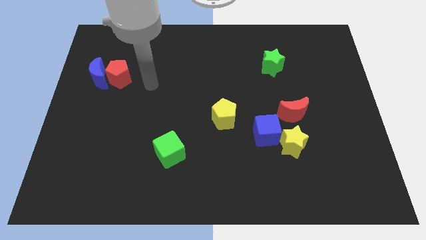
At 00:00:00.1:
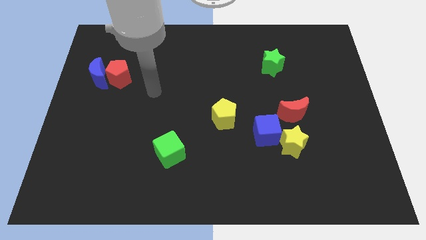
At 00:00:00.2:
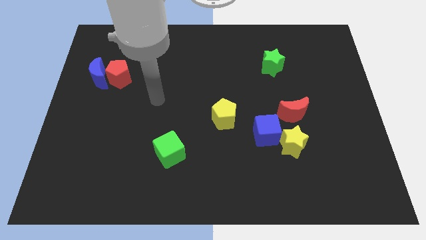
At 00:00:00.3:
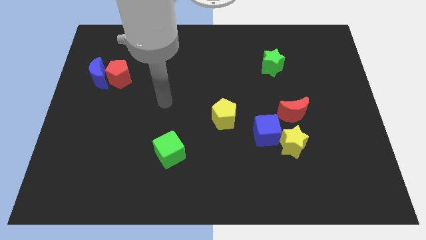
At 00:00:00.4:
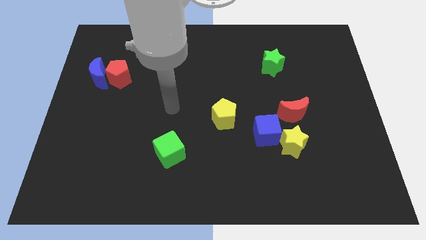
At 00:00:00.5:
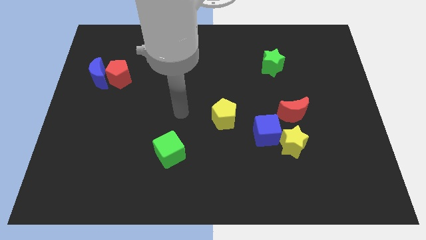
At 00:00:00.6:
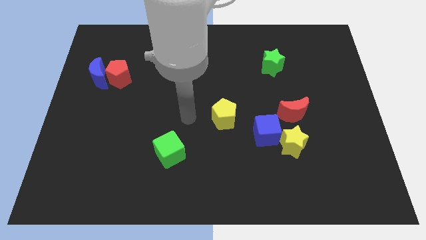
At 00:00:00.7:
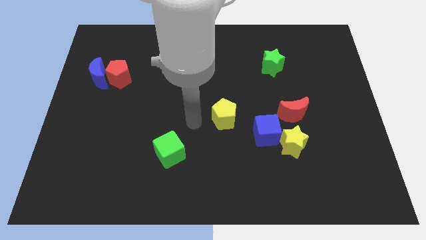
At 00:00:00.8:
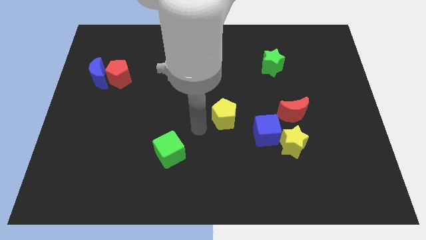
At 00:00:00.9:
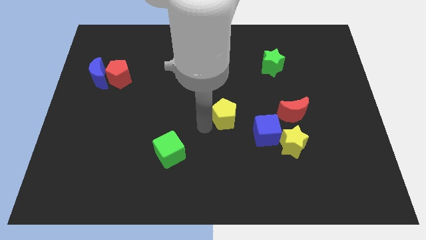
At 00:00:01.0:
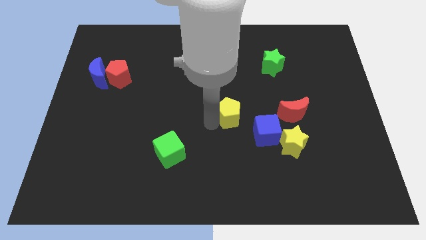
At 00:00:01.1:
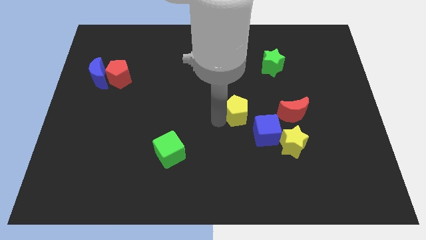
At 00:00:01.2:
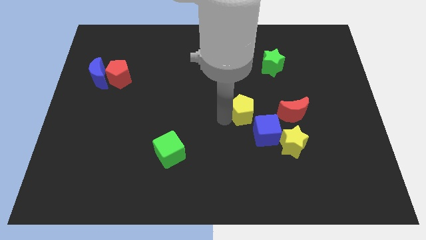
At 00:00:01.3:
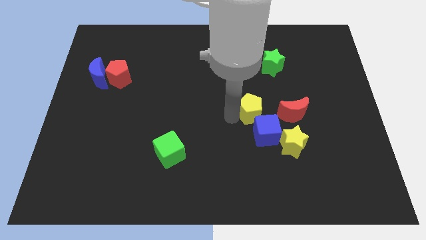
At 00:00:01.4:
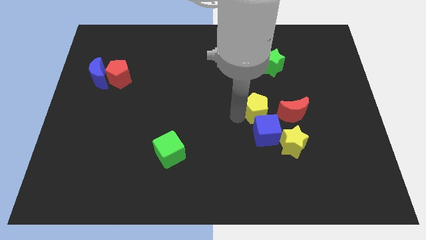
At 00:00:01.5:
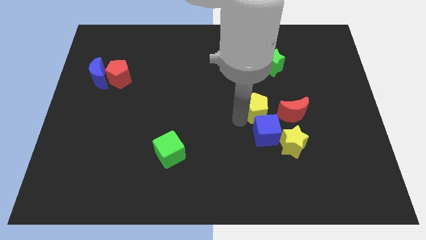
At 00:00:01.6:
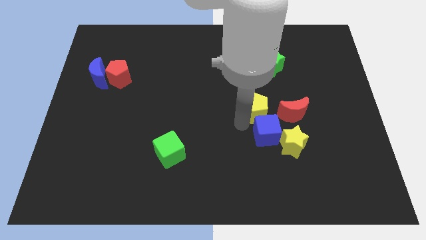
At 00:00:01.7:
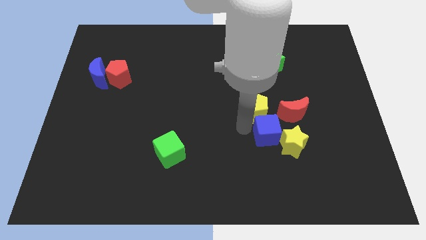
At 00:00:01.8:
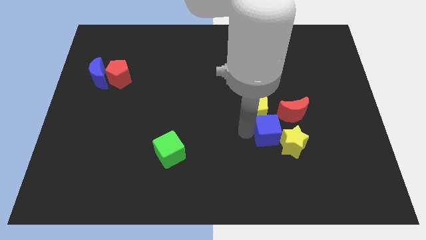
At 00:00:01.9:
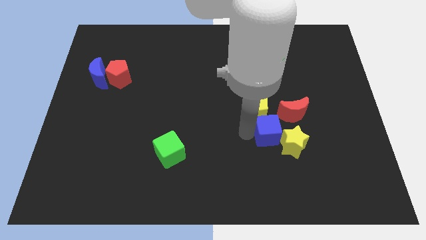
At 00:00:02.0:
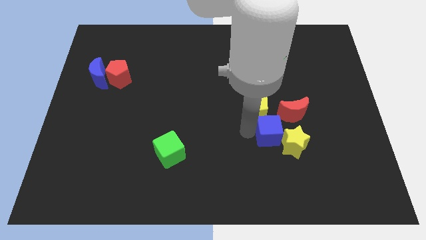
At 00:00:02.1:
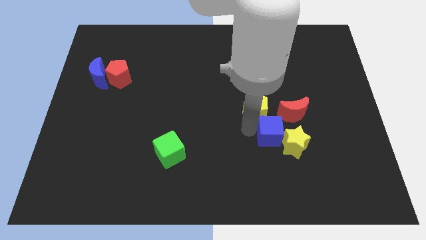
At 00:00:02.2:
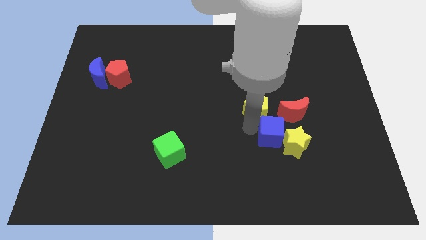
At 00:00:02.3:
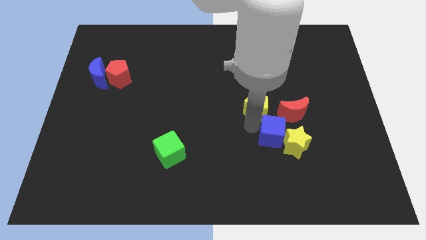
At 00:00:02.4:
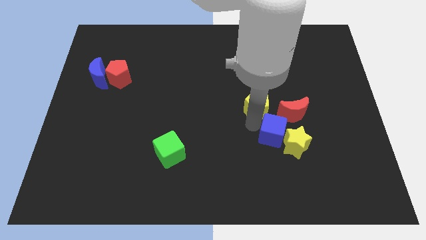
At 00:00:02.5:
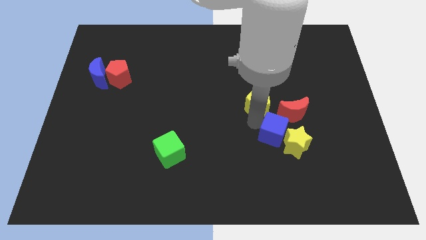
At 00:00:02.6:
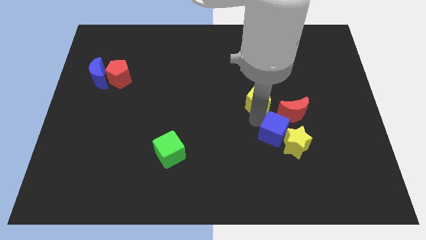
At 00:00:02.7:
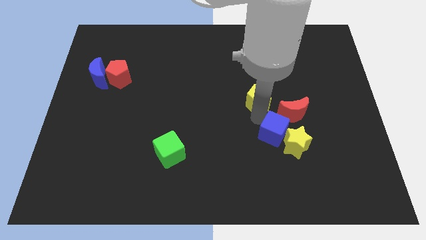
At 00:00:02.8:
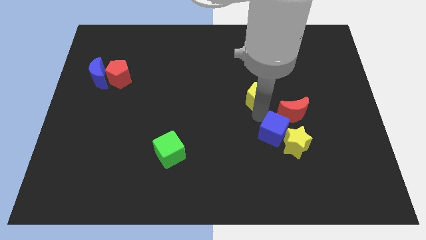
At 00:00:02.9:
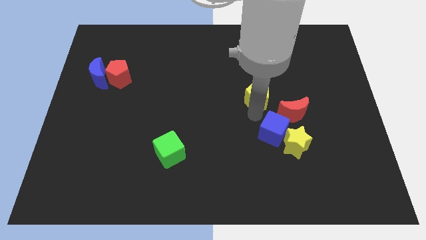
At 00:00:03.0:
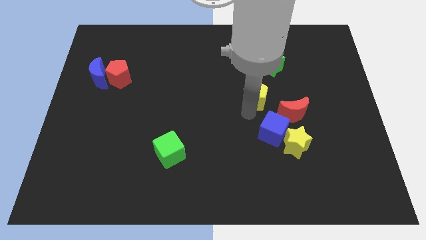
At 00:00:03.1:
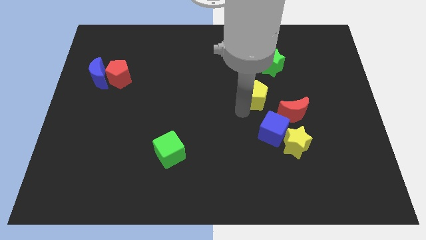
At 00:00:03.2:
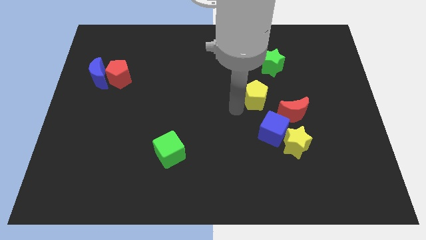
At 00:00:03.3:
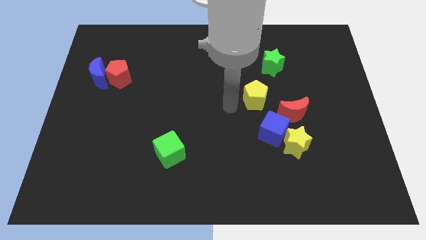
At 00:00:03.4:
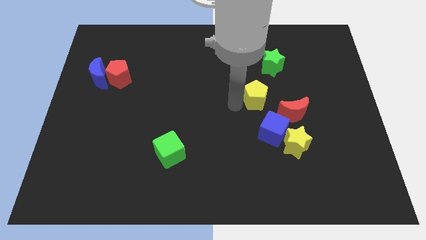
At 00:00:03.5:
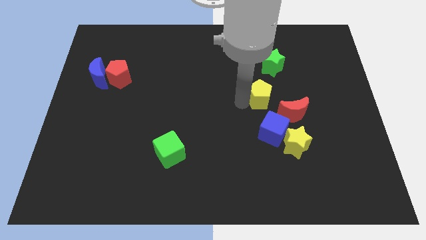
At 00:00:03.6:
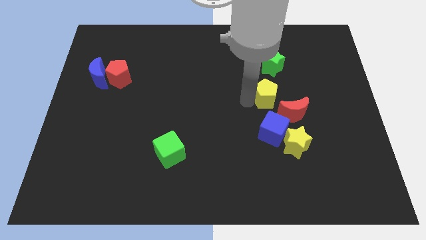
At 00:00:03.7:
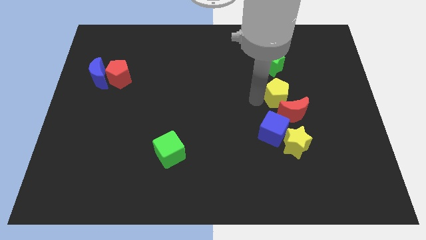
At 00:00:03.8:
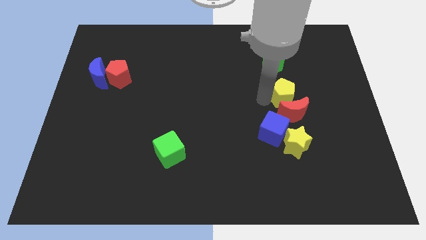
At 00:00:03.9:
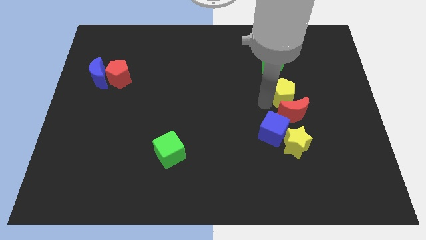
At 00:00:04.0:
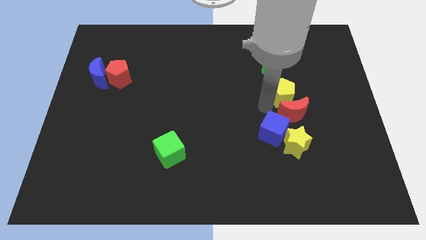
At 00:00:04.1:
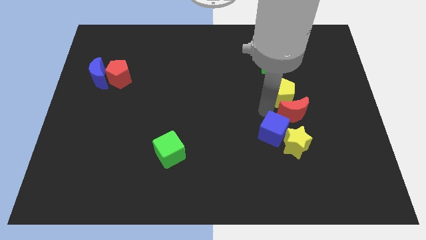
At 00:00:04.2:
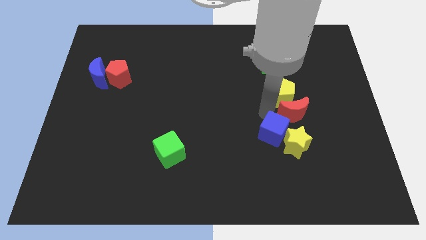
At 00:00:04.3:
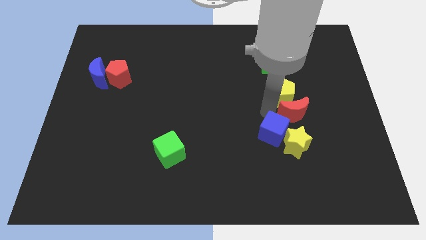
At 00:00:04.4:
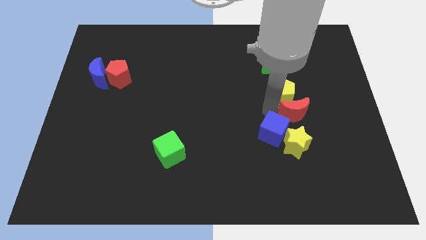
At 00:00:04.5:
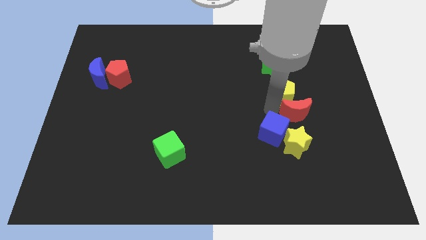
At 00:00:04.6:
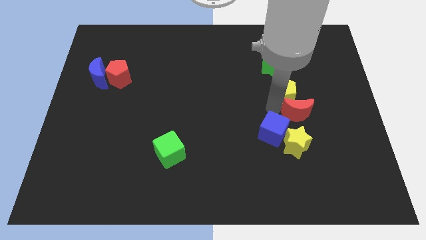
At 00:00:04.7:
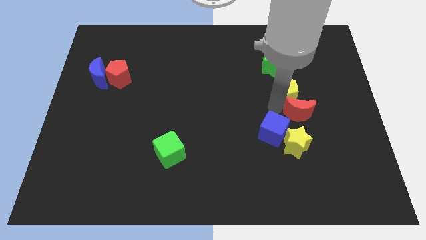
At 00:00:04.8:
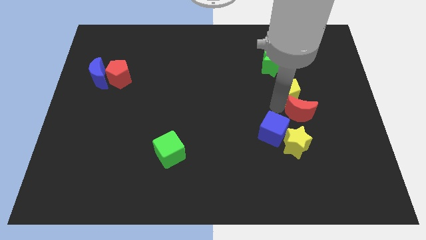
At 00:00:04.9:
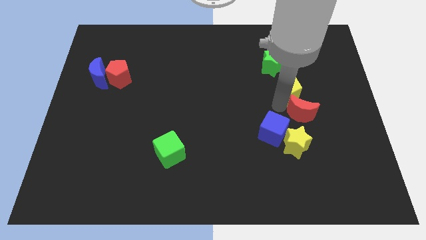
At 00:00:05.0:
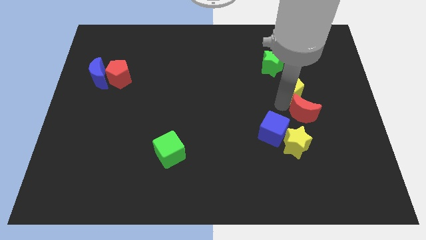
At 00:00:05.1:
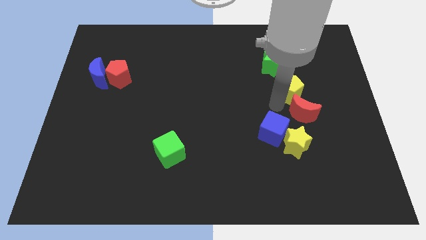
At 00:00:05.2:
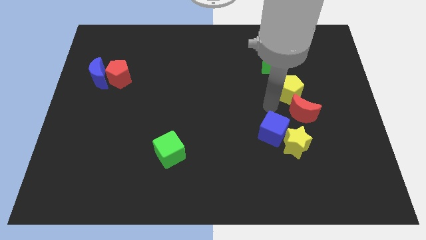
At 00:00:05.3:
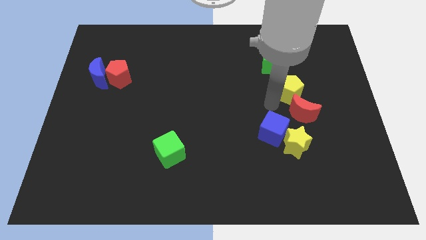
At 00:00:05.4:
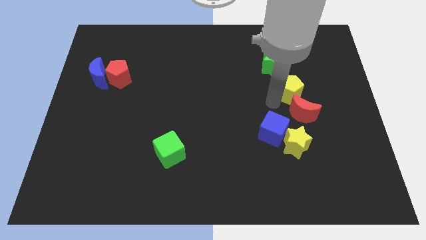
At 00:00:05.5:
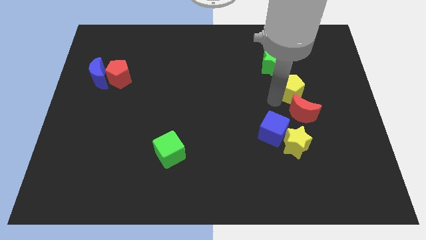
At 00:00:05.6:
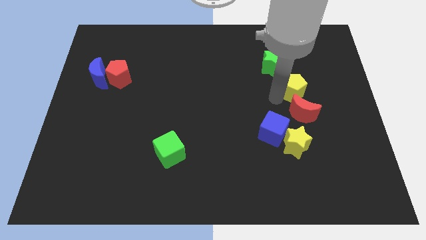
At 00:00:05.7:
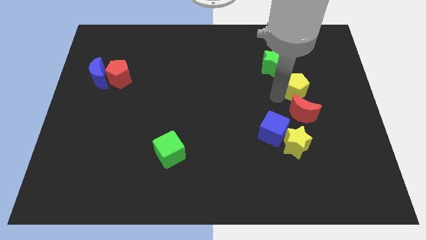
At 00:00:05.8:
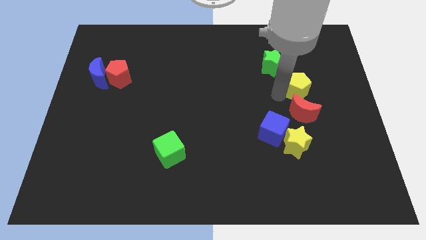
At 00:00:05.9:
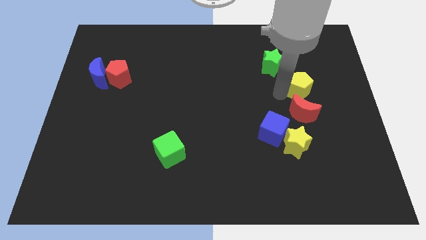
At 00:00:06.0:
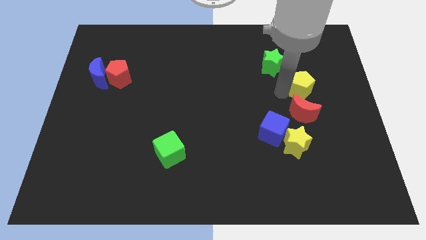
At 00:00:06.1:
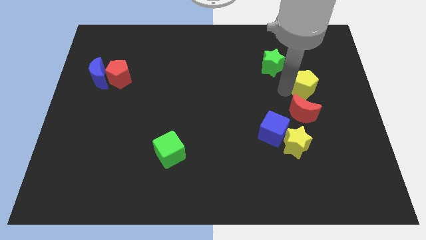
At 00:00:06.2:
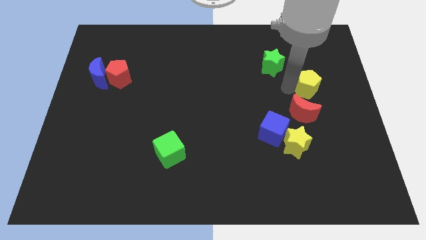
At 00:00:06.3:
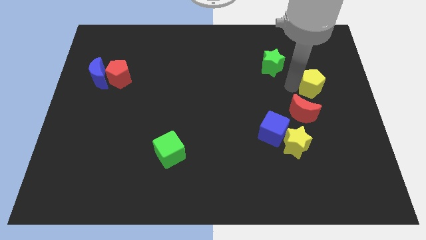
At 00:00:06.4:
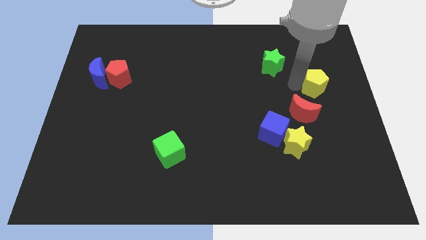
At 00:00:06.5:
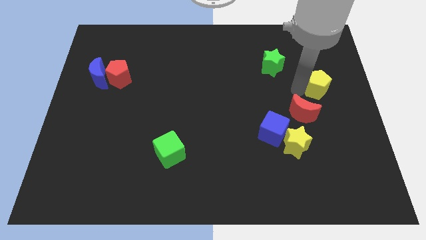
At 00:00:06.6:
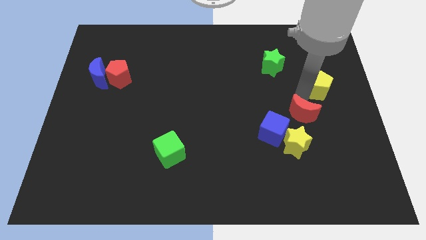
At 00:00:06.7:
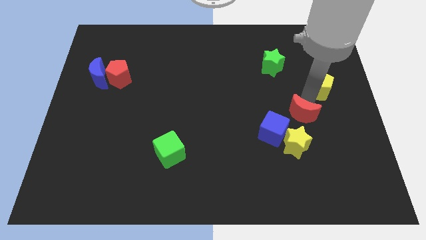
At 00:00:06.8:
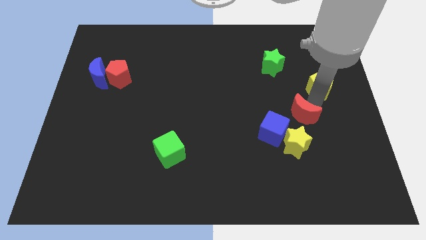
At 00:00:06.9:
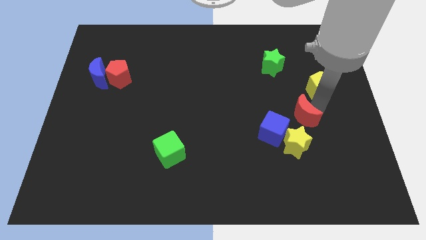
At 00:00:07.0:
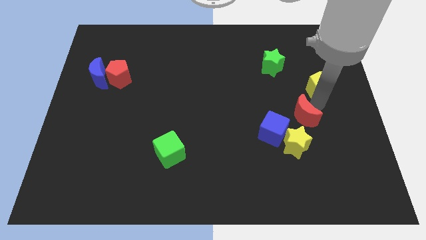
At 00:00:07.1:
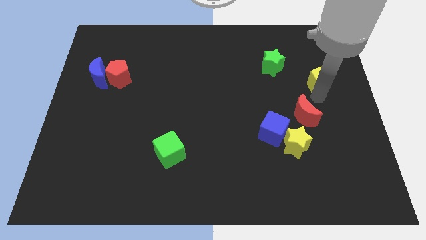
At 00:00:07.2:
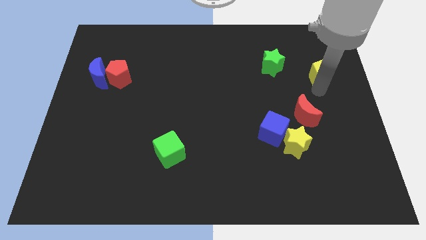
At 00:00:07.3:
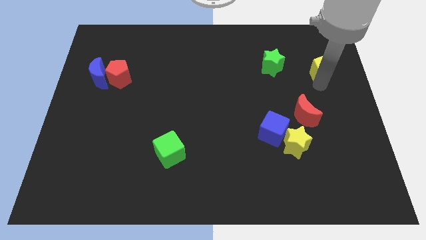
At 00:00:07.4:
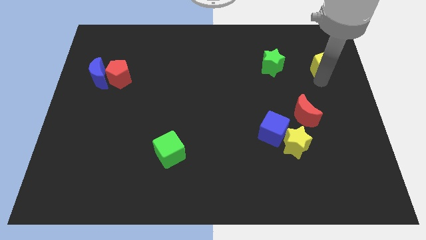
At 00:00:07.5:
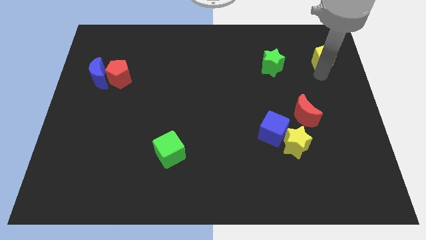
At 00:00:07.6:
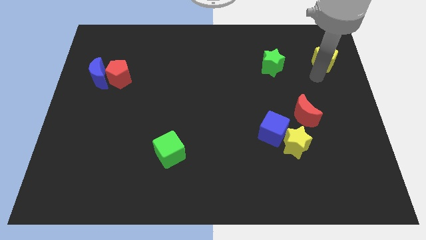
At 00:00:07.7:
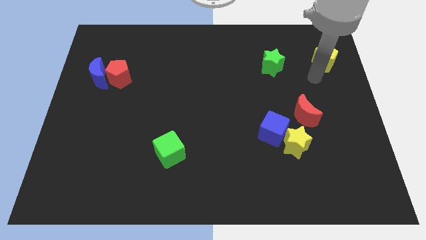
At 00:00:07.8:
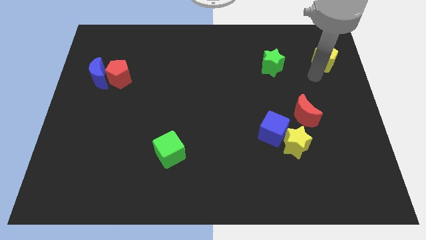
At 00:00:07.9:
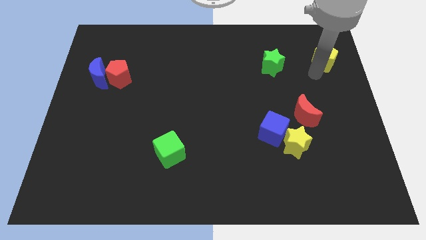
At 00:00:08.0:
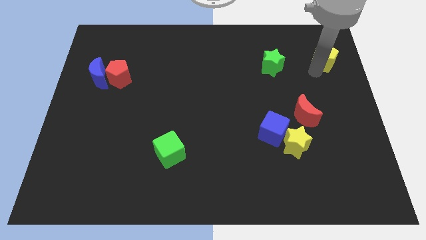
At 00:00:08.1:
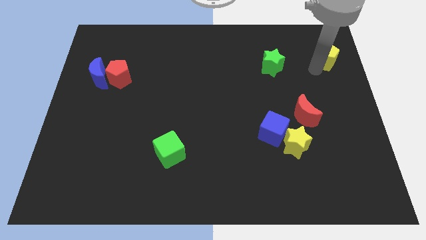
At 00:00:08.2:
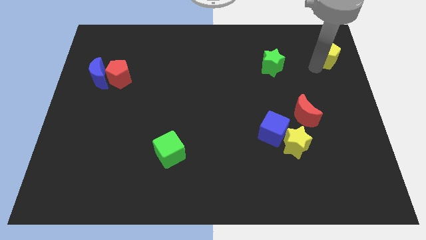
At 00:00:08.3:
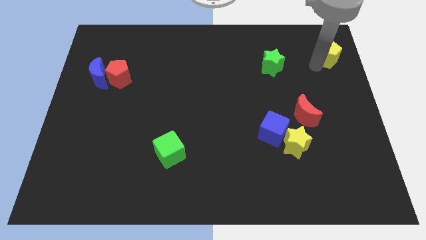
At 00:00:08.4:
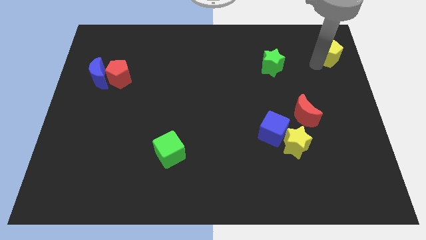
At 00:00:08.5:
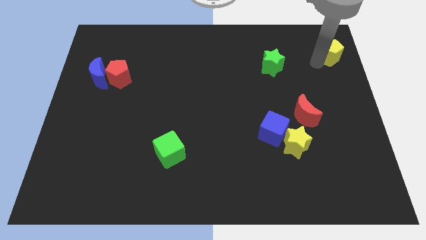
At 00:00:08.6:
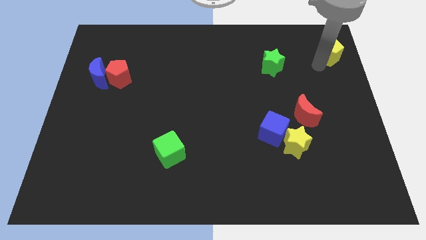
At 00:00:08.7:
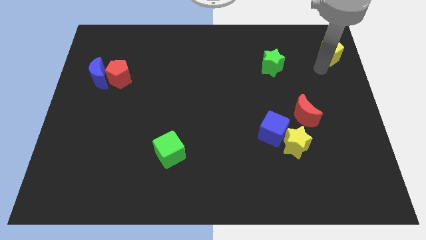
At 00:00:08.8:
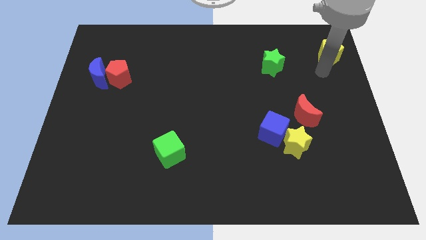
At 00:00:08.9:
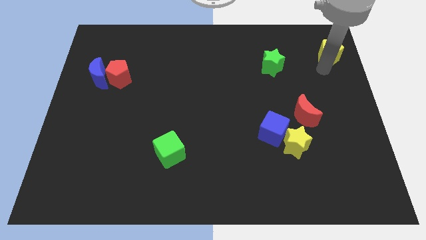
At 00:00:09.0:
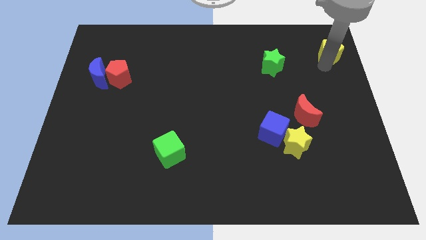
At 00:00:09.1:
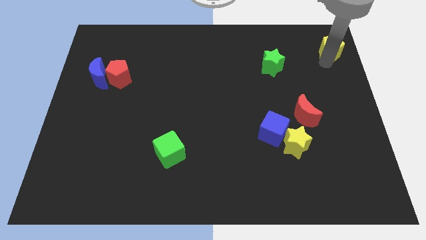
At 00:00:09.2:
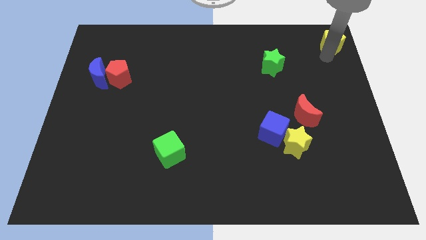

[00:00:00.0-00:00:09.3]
slide the yellow pentagon to the top right corner
